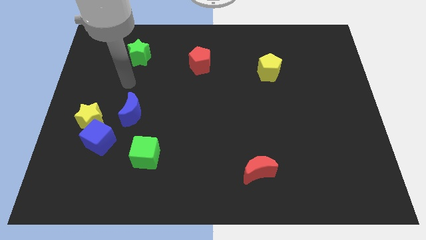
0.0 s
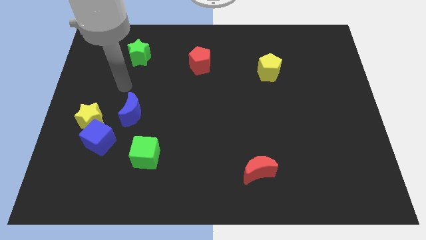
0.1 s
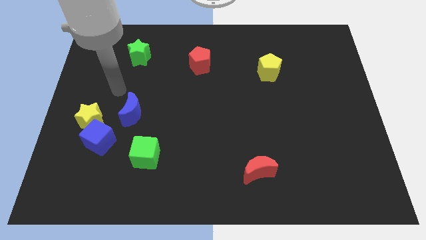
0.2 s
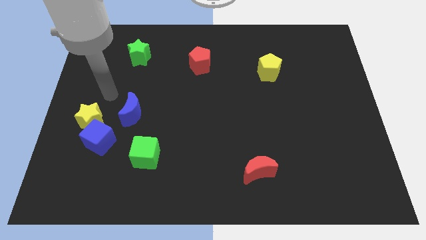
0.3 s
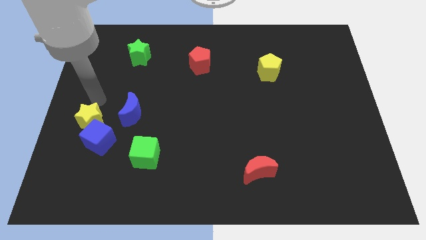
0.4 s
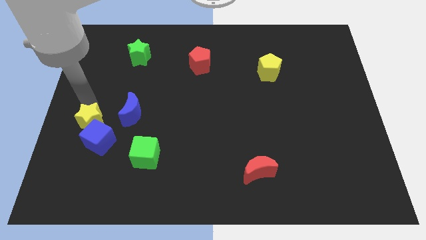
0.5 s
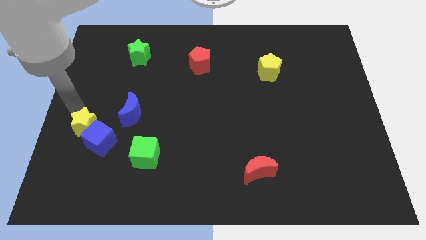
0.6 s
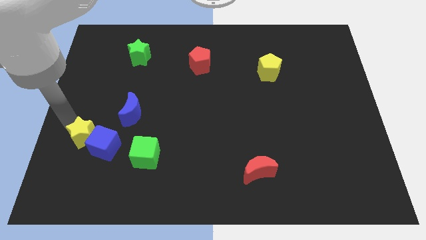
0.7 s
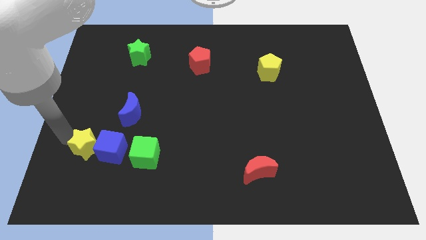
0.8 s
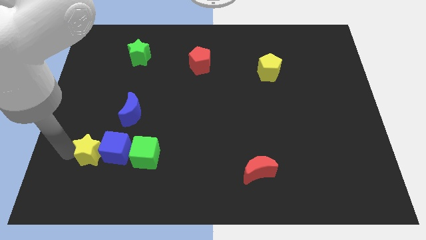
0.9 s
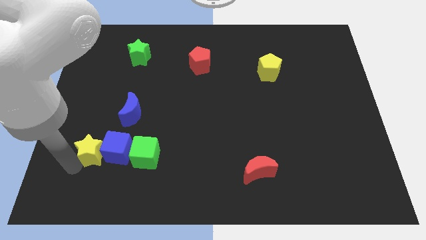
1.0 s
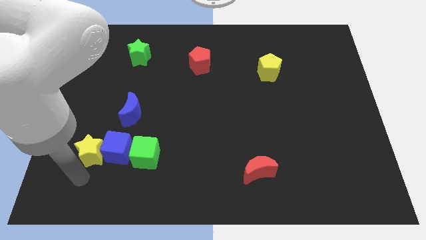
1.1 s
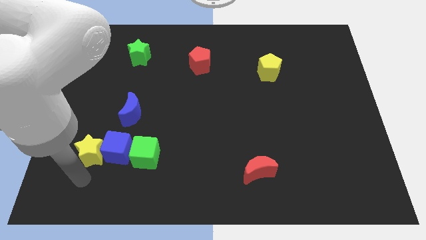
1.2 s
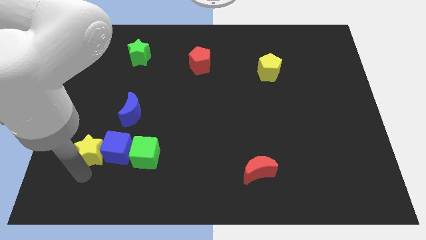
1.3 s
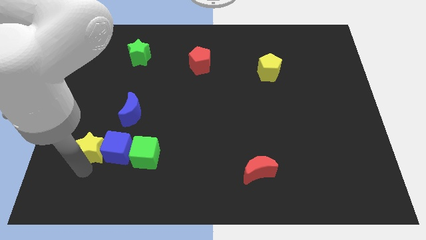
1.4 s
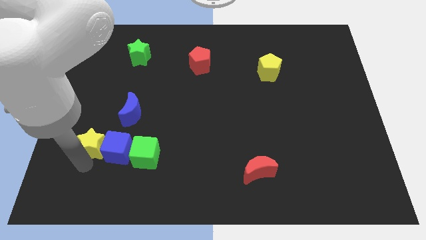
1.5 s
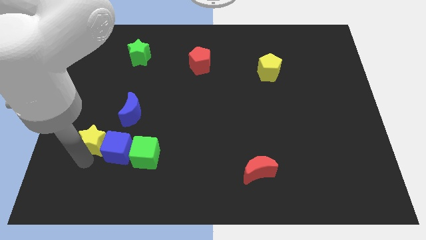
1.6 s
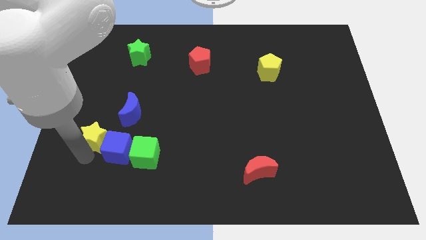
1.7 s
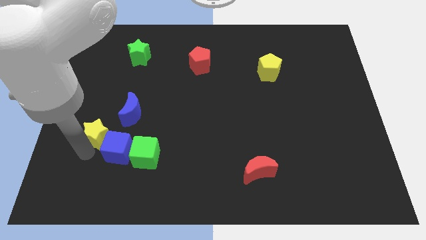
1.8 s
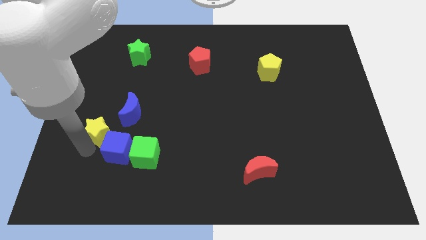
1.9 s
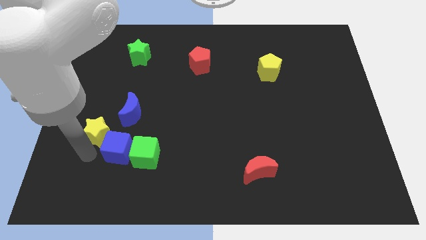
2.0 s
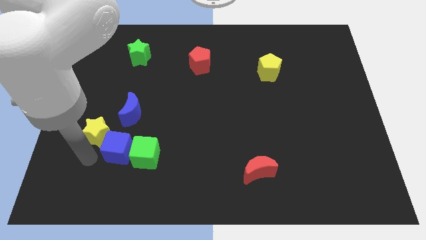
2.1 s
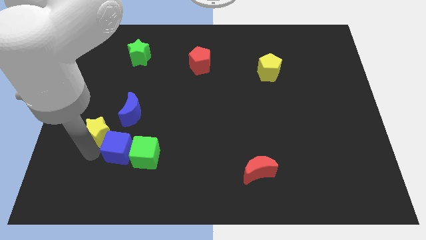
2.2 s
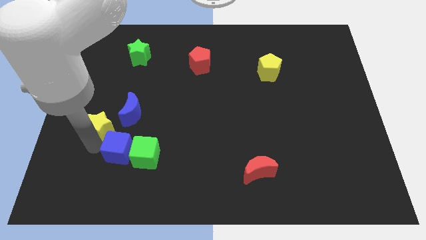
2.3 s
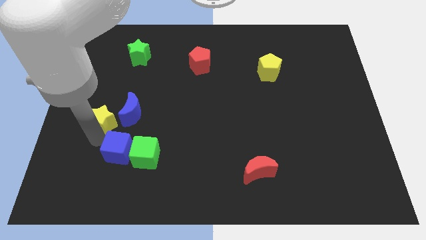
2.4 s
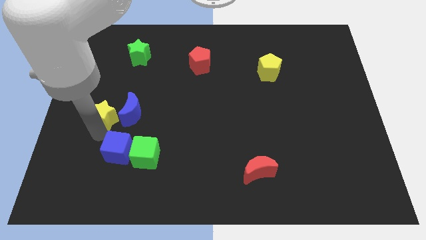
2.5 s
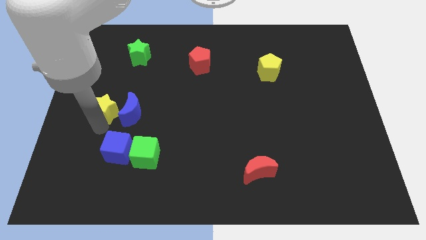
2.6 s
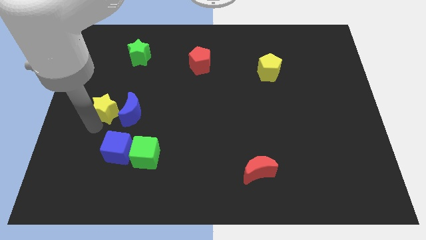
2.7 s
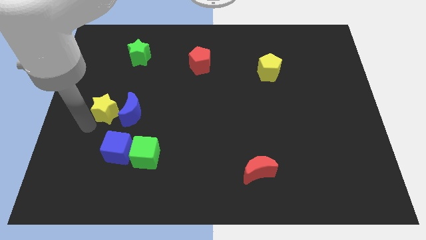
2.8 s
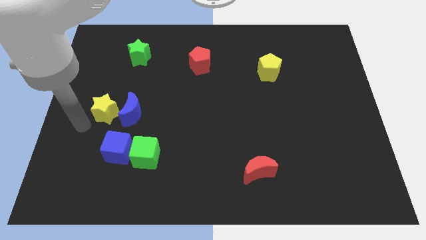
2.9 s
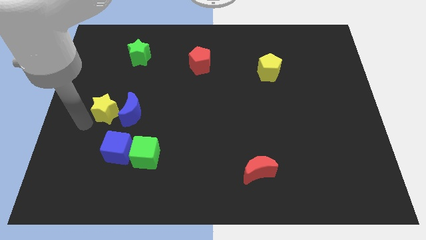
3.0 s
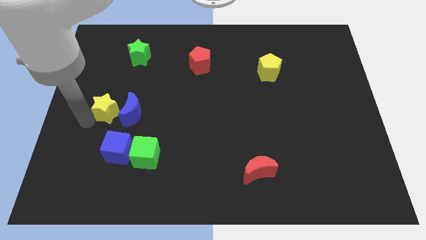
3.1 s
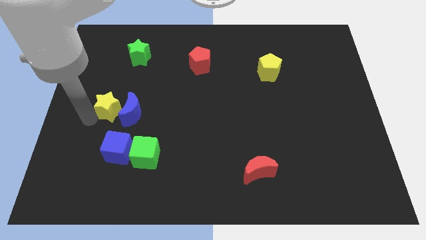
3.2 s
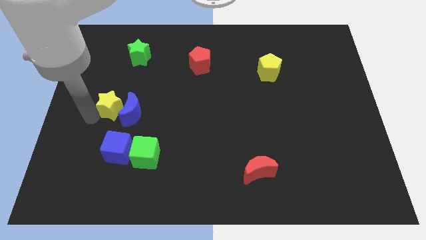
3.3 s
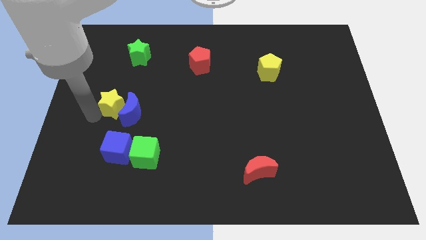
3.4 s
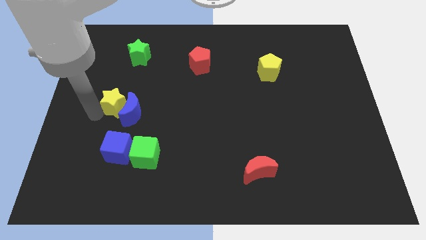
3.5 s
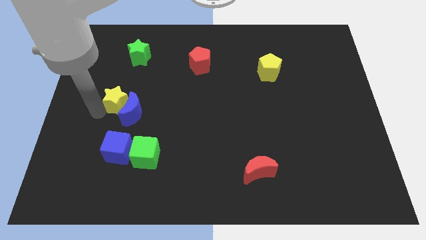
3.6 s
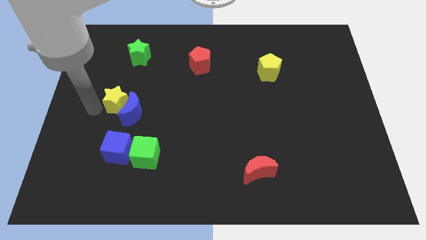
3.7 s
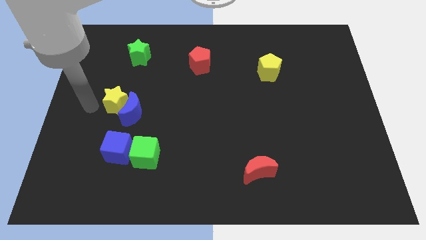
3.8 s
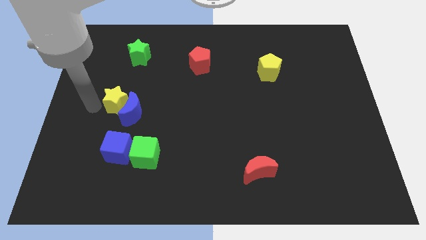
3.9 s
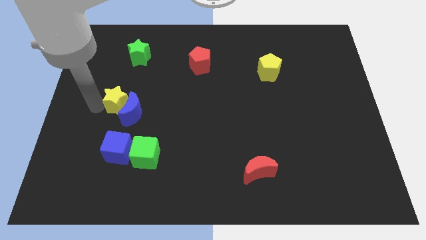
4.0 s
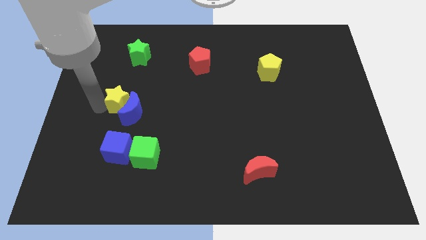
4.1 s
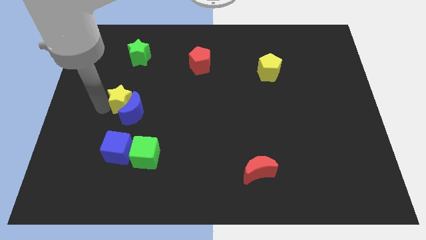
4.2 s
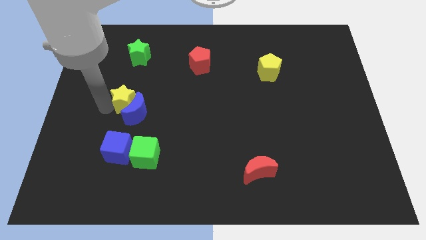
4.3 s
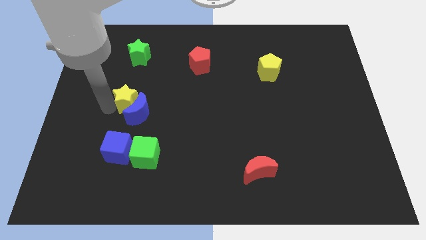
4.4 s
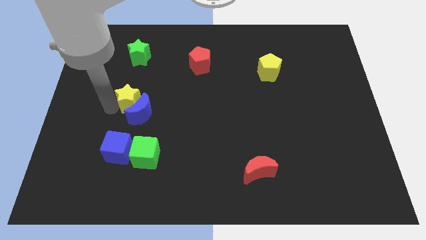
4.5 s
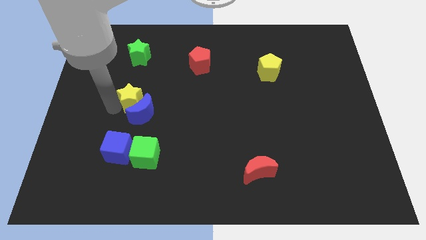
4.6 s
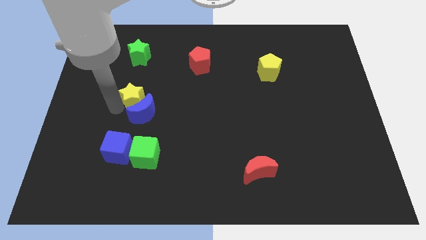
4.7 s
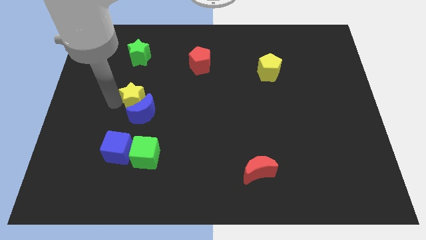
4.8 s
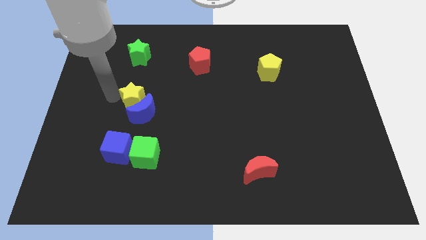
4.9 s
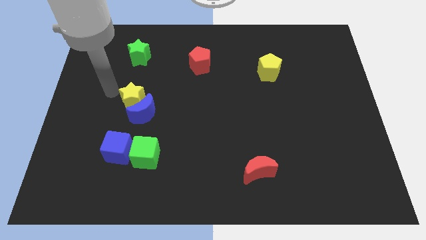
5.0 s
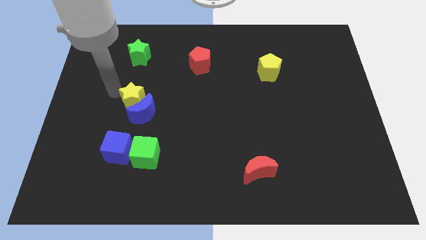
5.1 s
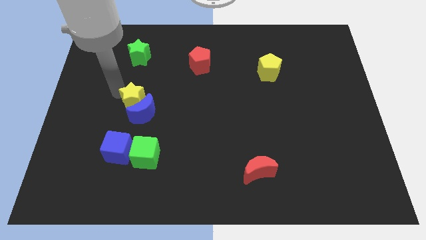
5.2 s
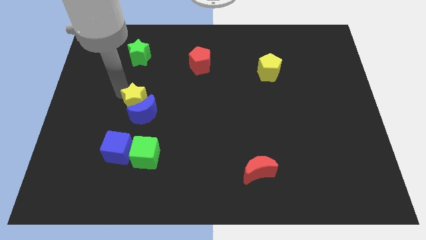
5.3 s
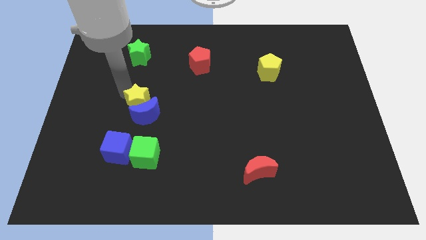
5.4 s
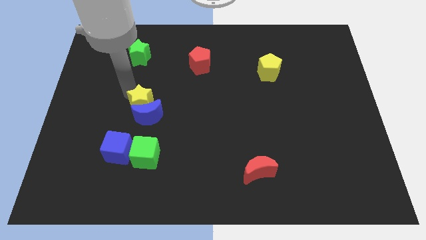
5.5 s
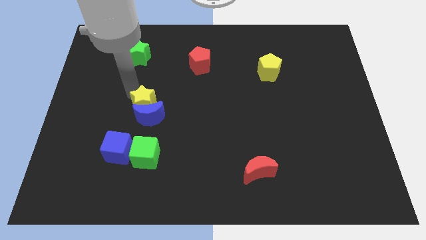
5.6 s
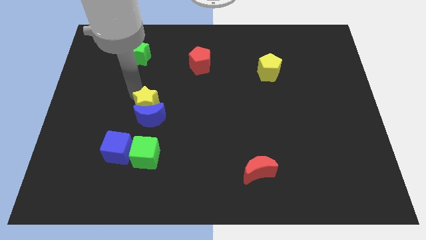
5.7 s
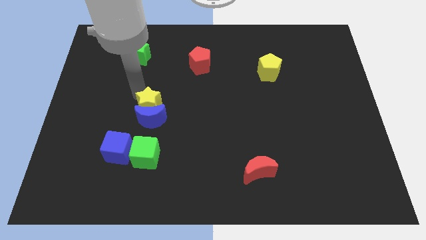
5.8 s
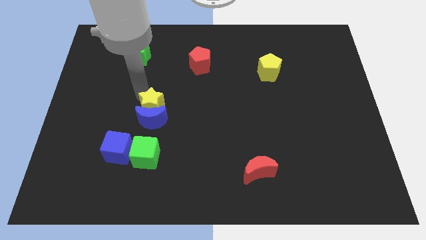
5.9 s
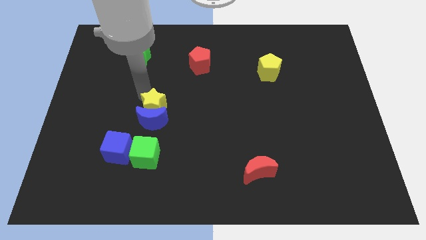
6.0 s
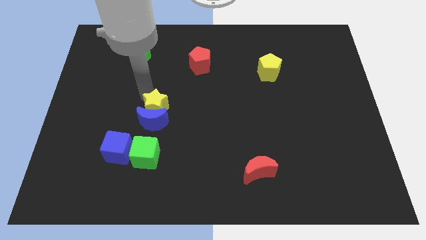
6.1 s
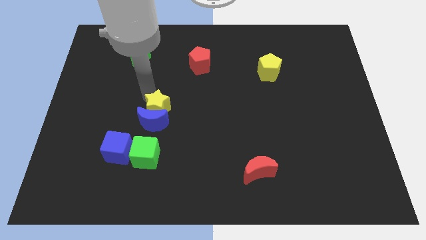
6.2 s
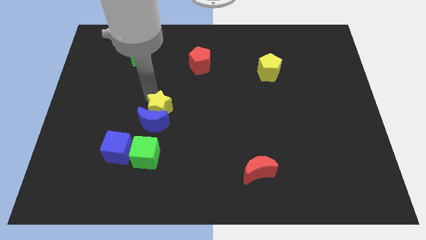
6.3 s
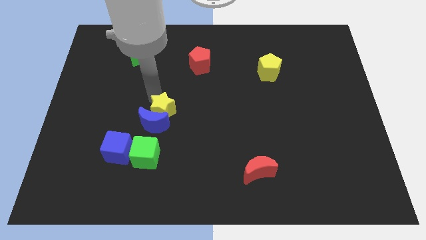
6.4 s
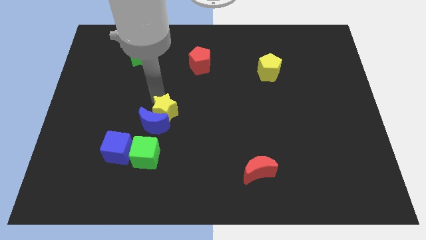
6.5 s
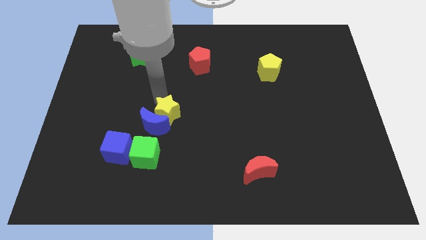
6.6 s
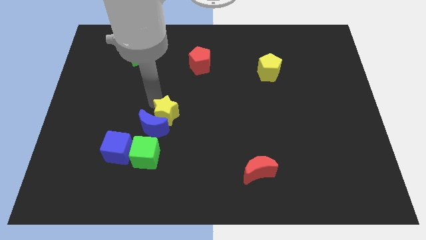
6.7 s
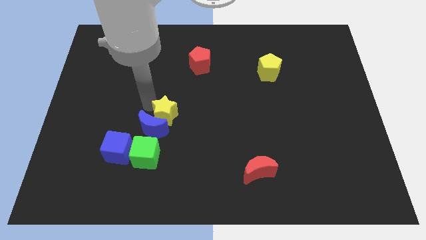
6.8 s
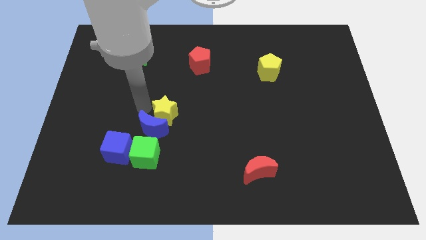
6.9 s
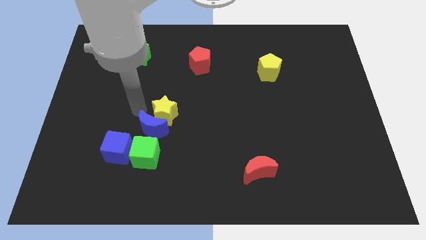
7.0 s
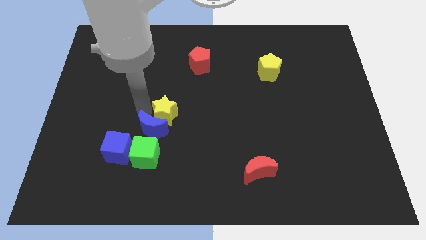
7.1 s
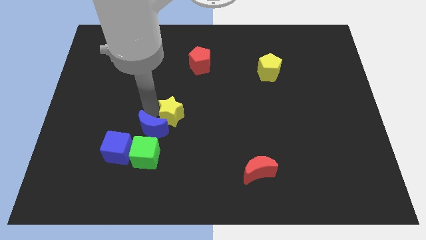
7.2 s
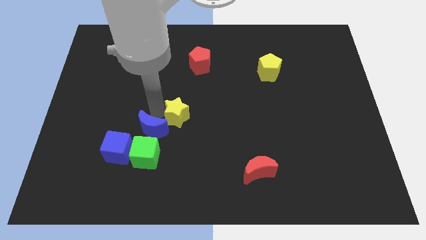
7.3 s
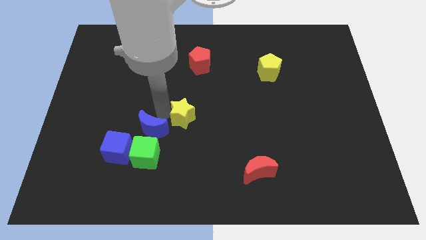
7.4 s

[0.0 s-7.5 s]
move the yellow star to the right

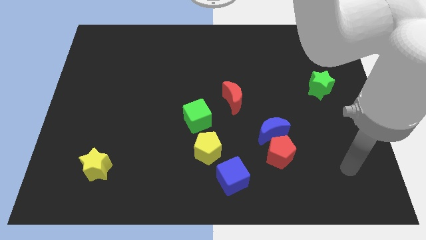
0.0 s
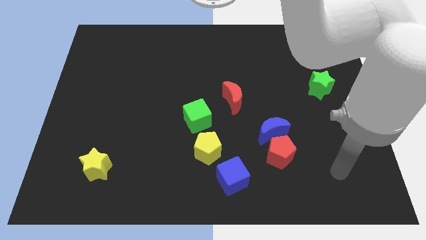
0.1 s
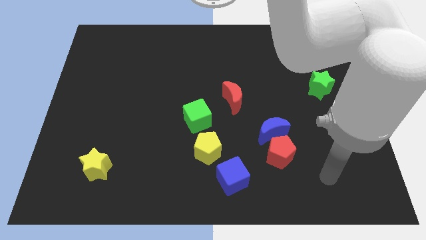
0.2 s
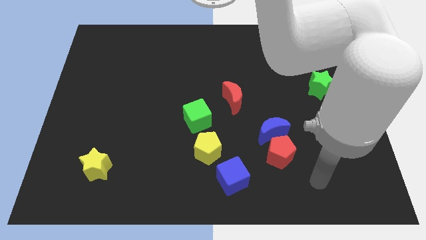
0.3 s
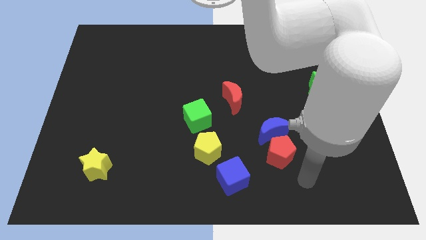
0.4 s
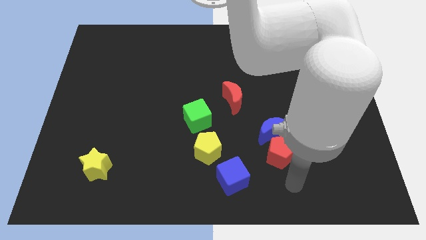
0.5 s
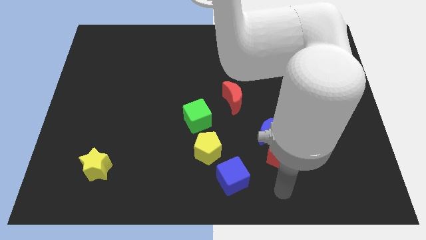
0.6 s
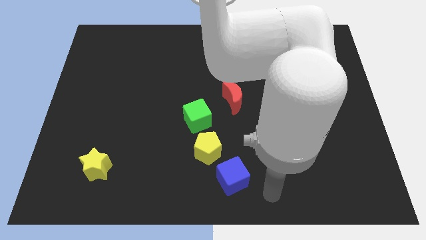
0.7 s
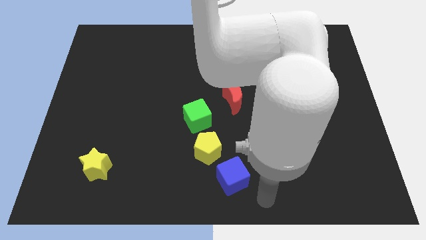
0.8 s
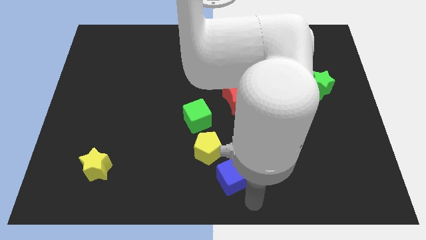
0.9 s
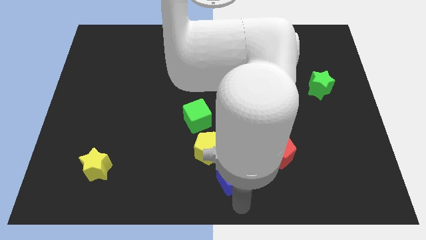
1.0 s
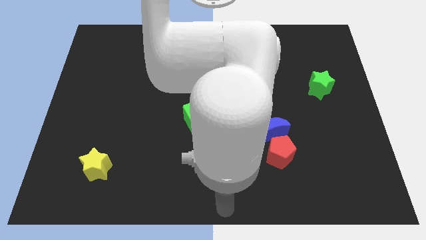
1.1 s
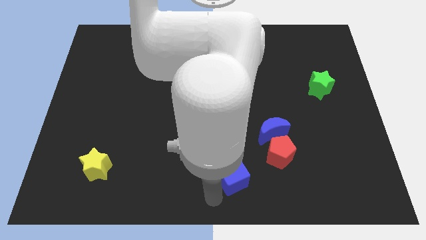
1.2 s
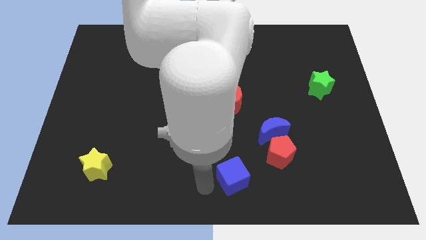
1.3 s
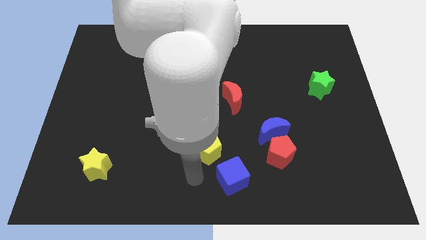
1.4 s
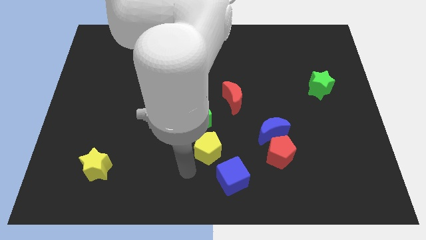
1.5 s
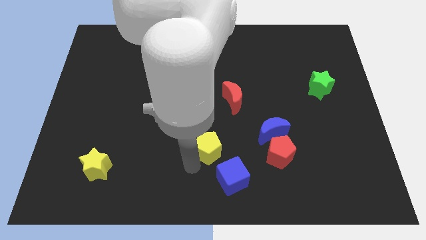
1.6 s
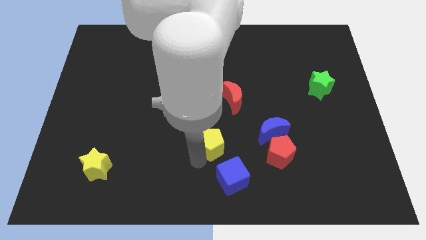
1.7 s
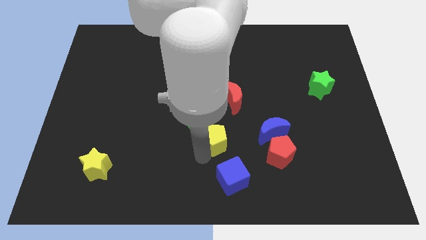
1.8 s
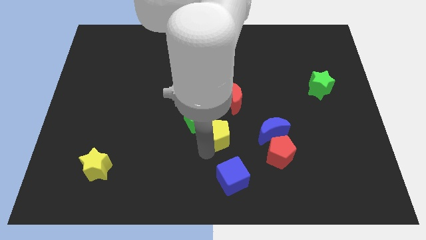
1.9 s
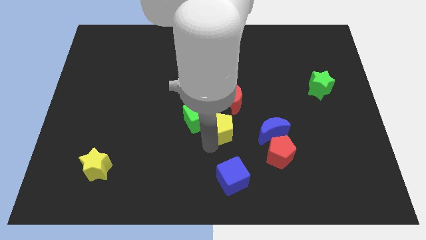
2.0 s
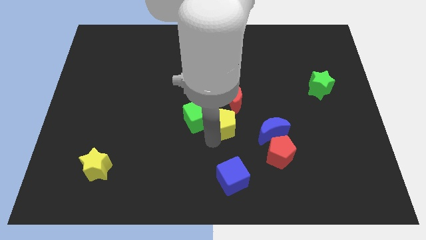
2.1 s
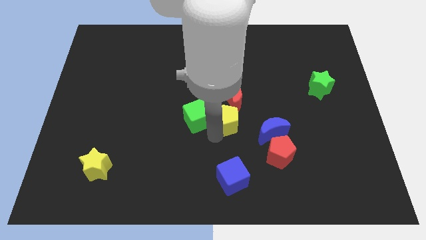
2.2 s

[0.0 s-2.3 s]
slide the yellow pentagon up somewhat
